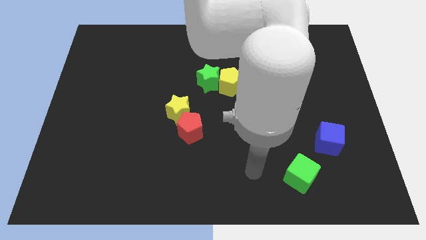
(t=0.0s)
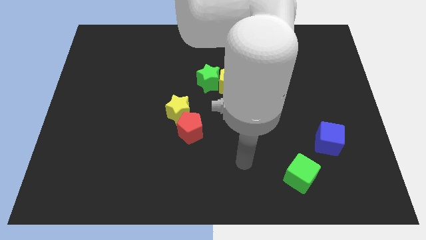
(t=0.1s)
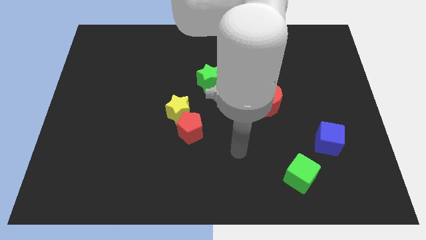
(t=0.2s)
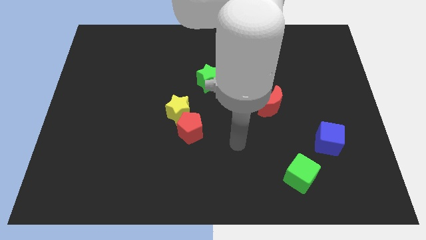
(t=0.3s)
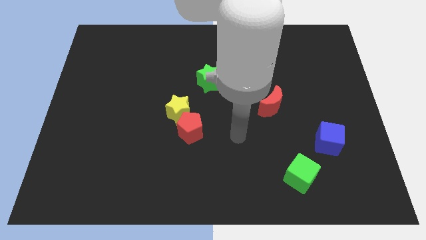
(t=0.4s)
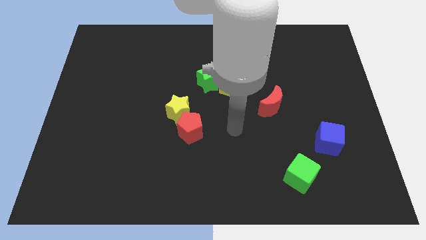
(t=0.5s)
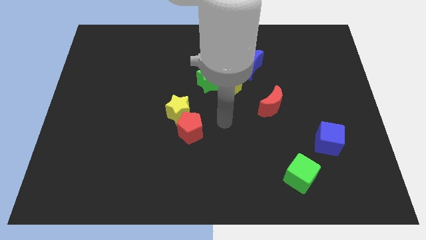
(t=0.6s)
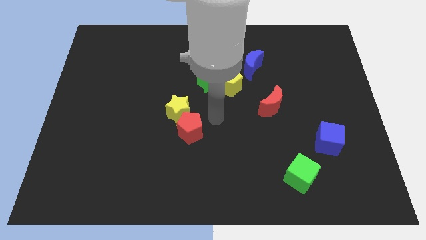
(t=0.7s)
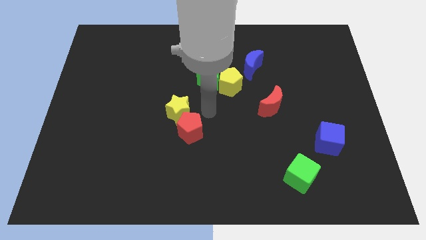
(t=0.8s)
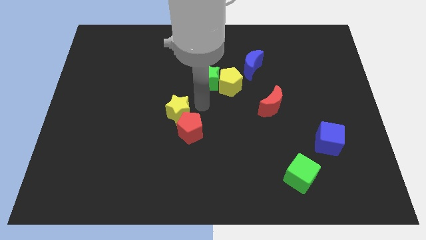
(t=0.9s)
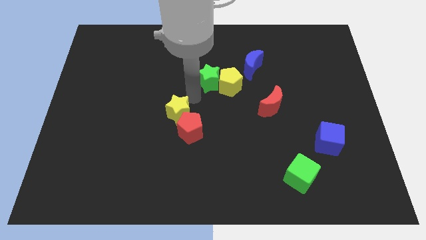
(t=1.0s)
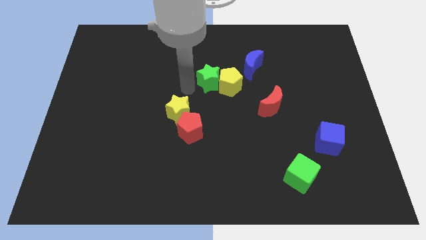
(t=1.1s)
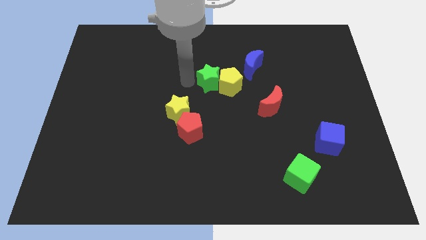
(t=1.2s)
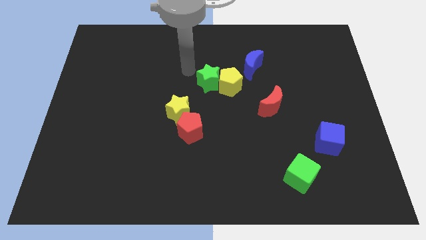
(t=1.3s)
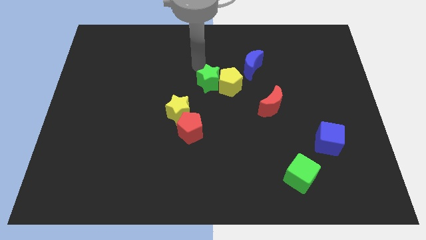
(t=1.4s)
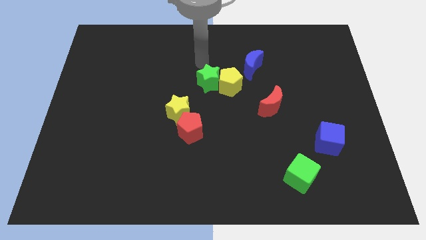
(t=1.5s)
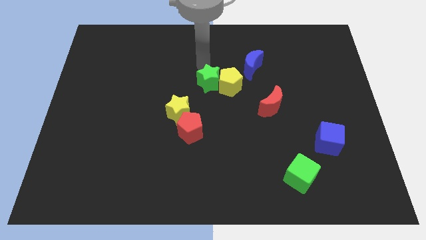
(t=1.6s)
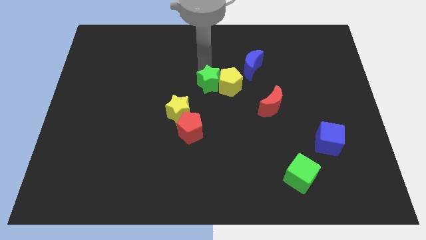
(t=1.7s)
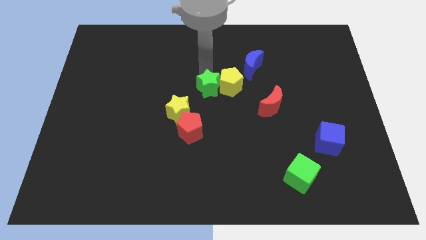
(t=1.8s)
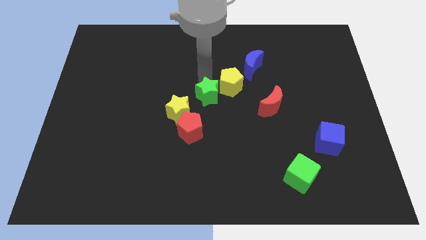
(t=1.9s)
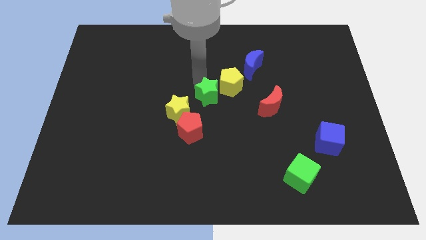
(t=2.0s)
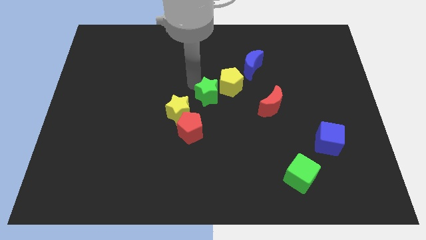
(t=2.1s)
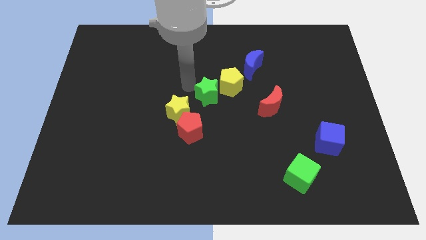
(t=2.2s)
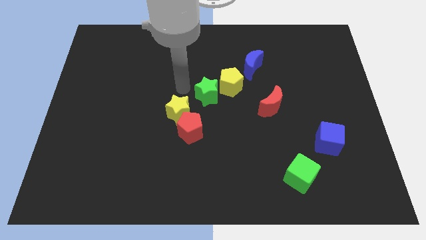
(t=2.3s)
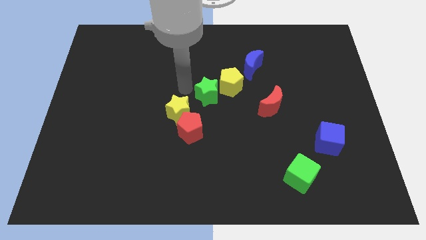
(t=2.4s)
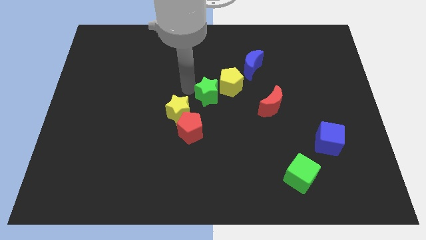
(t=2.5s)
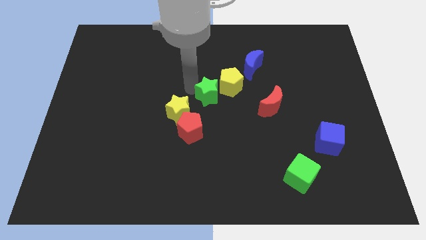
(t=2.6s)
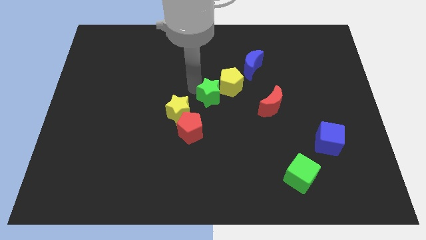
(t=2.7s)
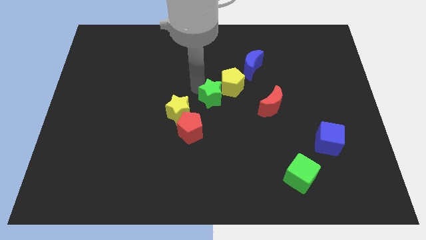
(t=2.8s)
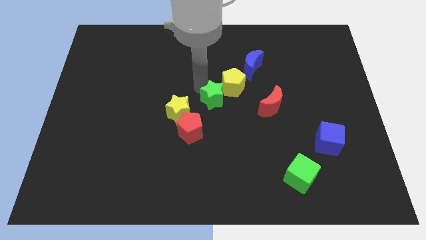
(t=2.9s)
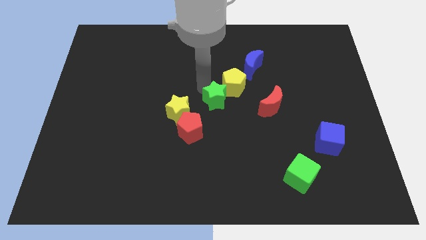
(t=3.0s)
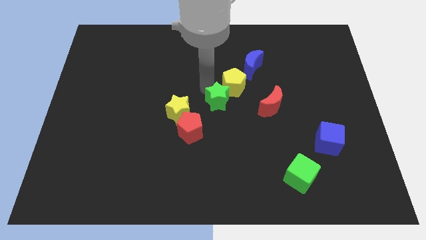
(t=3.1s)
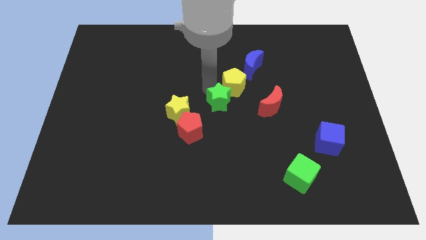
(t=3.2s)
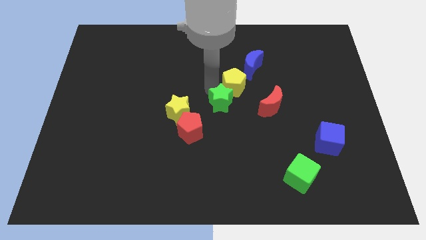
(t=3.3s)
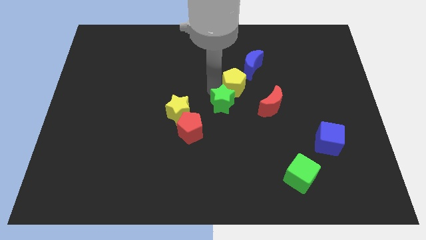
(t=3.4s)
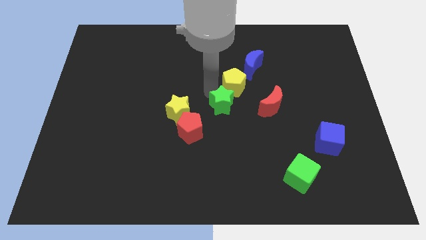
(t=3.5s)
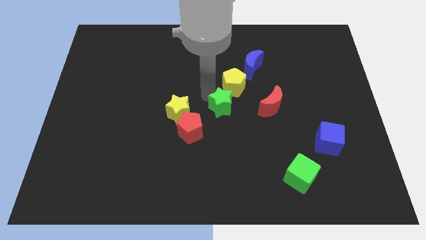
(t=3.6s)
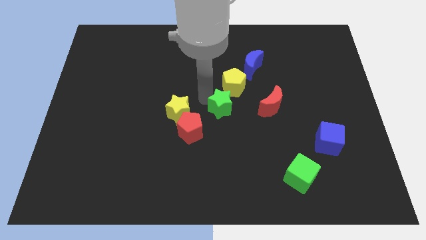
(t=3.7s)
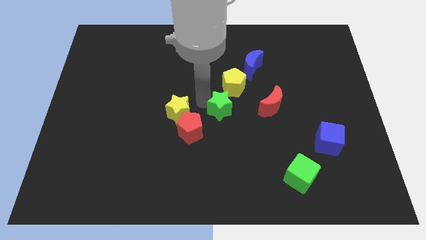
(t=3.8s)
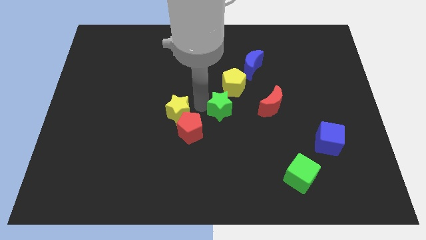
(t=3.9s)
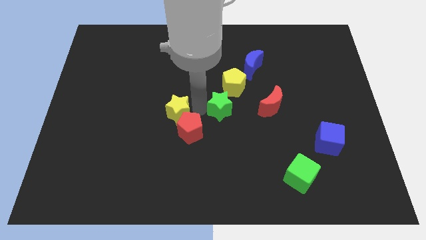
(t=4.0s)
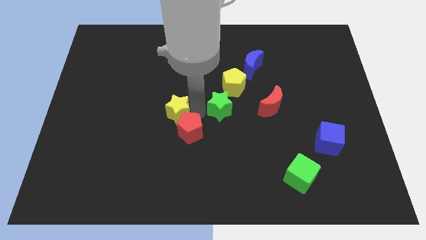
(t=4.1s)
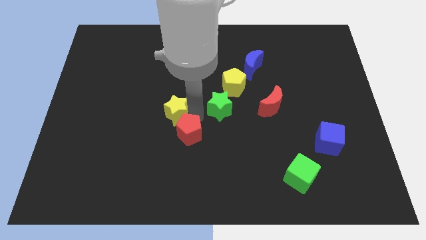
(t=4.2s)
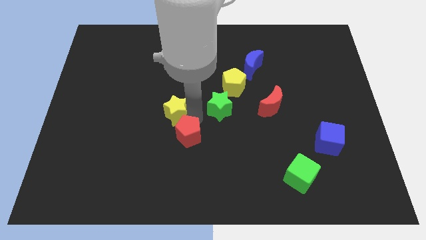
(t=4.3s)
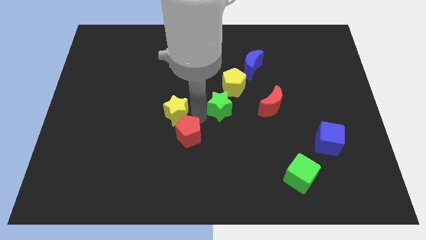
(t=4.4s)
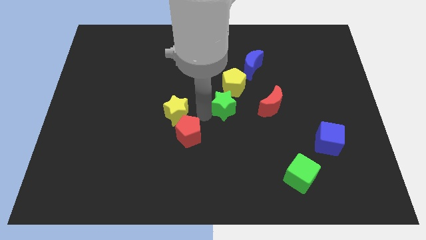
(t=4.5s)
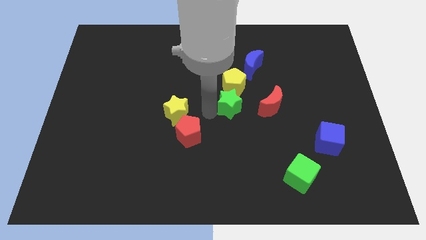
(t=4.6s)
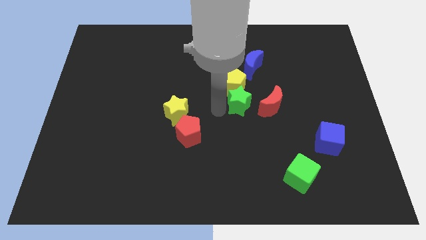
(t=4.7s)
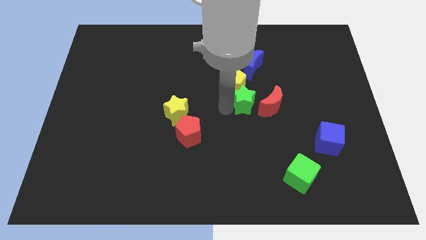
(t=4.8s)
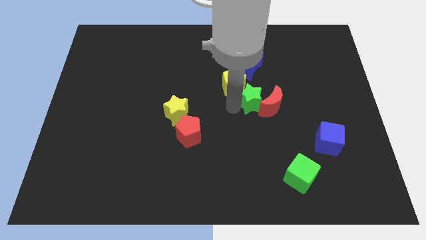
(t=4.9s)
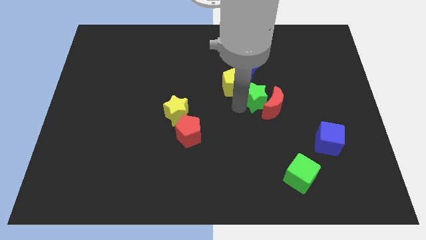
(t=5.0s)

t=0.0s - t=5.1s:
push the green star just right of the yellow pentagon

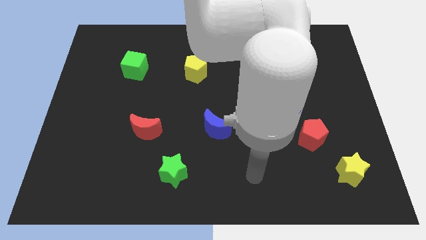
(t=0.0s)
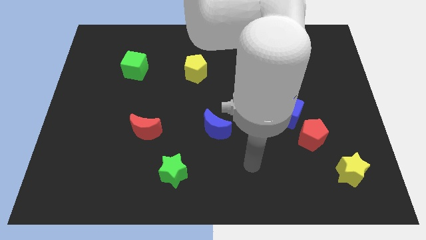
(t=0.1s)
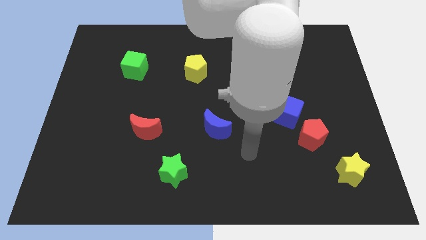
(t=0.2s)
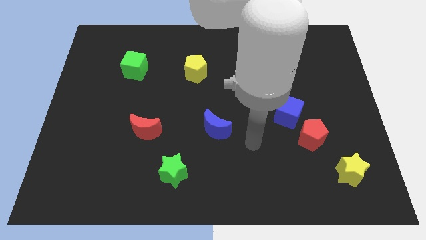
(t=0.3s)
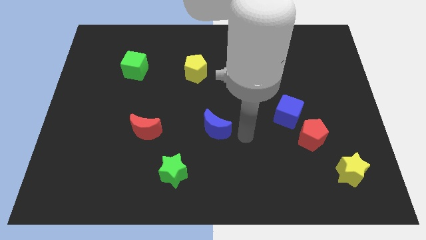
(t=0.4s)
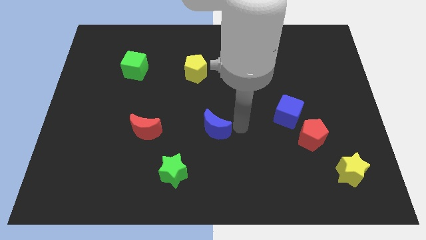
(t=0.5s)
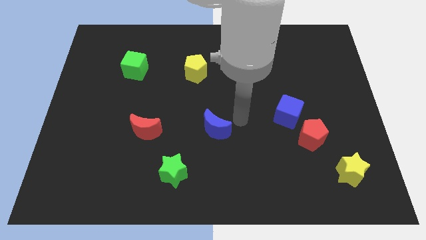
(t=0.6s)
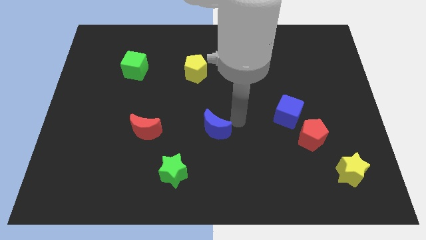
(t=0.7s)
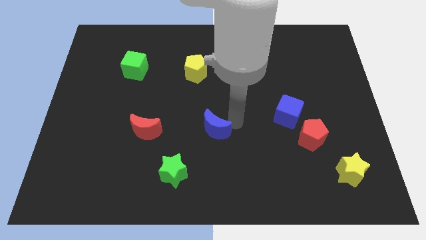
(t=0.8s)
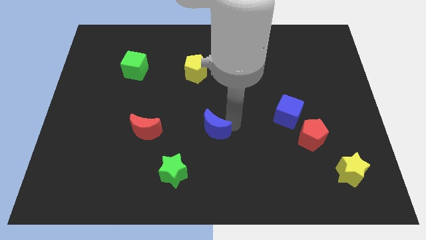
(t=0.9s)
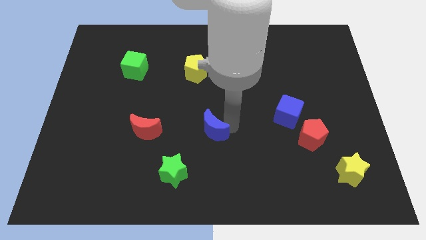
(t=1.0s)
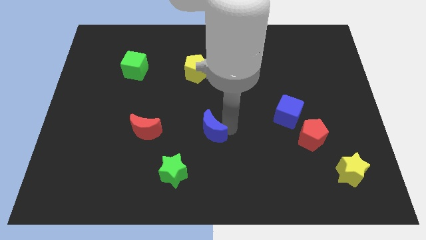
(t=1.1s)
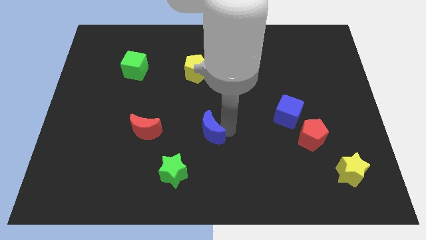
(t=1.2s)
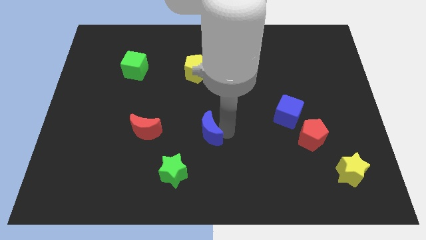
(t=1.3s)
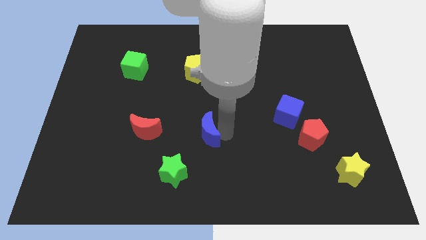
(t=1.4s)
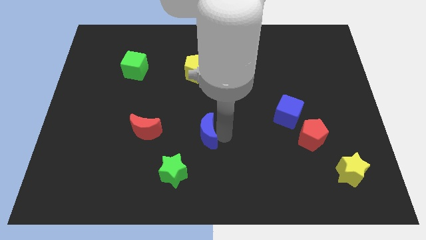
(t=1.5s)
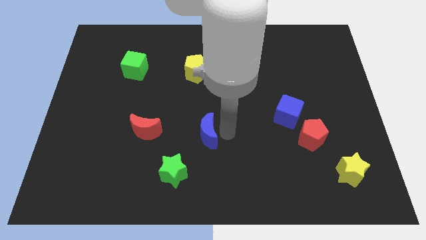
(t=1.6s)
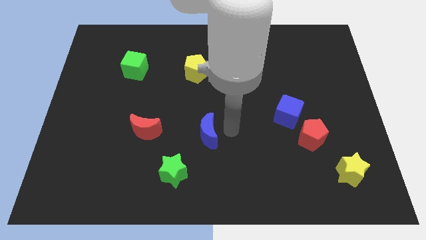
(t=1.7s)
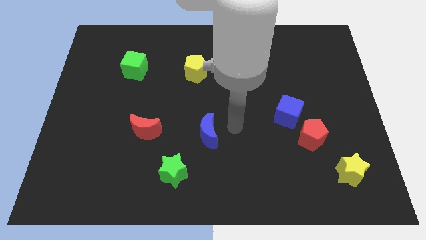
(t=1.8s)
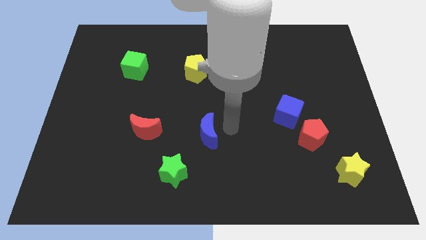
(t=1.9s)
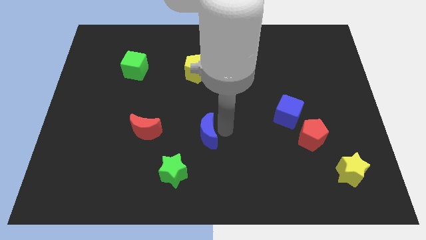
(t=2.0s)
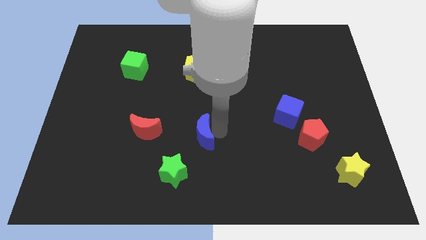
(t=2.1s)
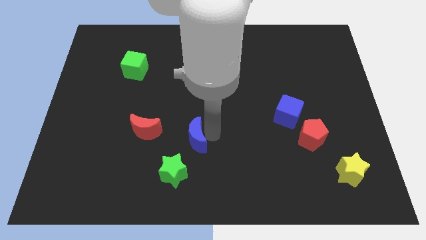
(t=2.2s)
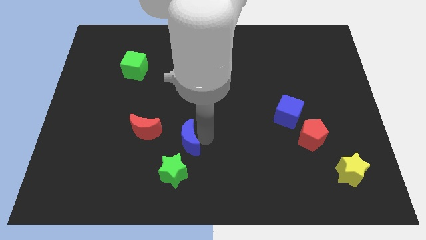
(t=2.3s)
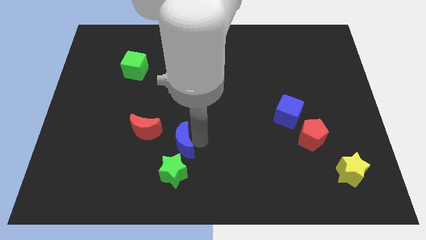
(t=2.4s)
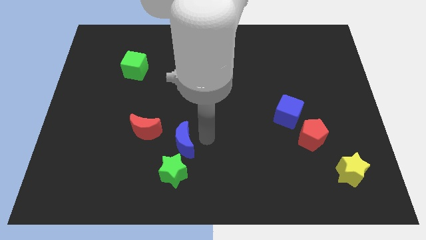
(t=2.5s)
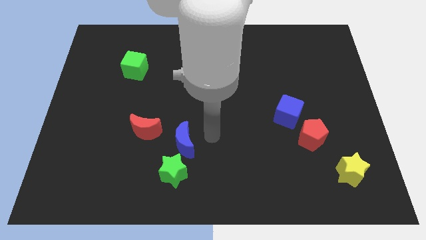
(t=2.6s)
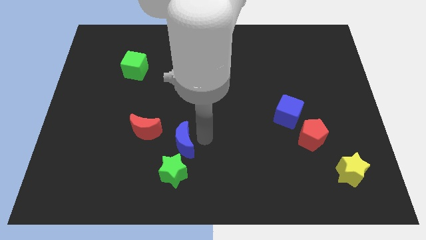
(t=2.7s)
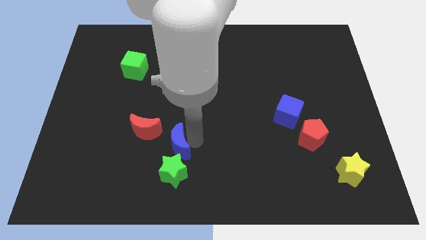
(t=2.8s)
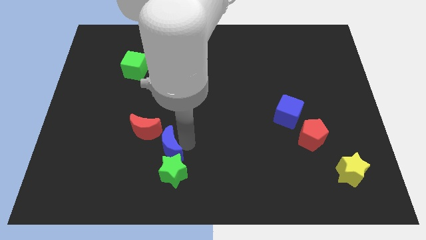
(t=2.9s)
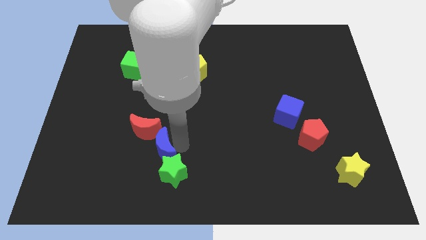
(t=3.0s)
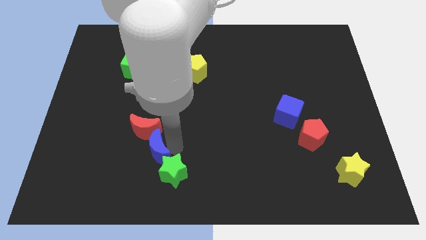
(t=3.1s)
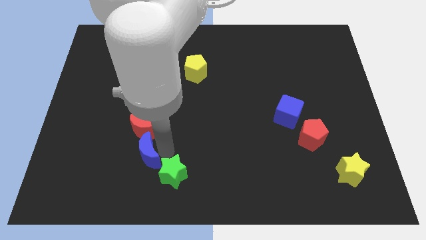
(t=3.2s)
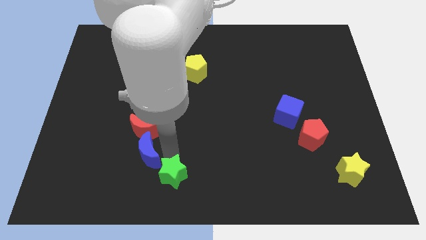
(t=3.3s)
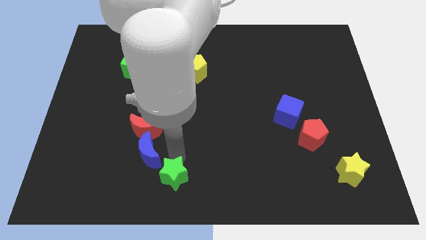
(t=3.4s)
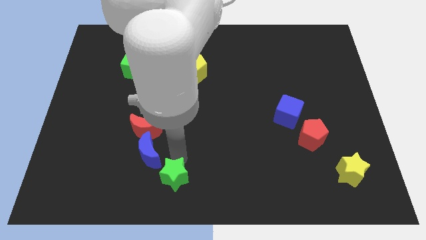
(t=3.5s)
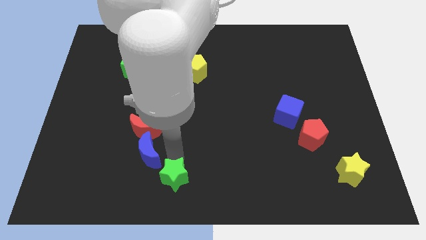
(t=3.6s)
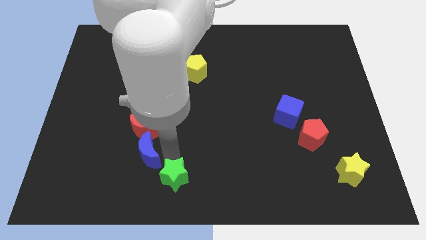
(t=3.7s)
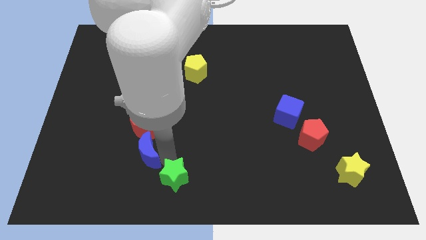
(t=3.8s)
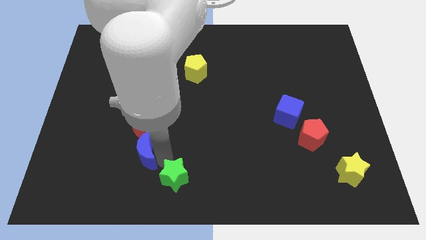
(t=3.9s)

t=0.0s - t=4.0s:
slide the blue moon diagonally down and to the left of the red moon
